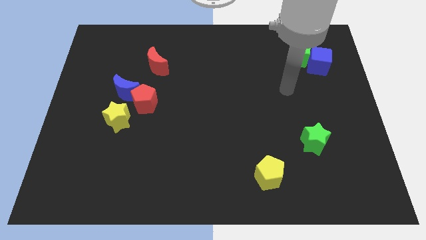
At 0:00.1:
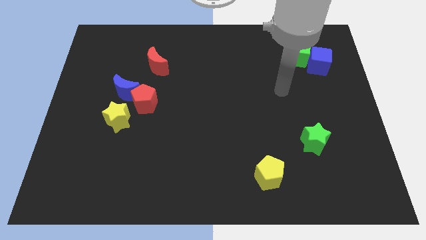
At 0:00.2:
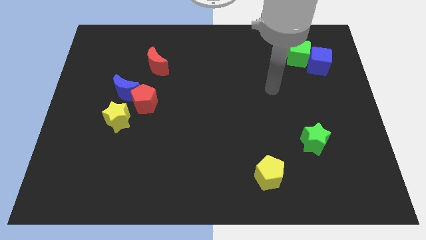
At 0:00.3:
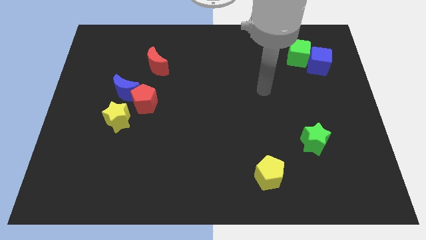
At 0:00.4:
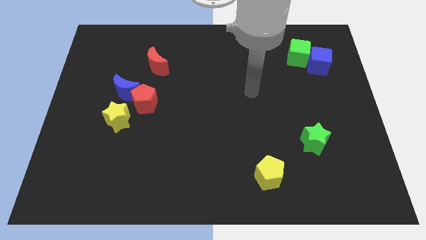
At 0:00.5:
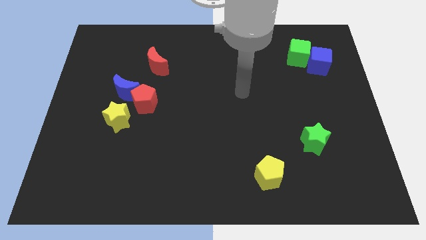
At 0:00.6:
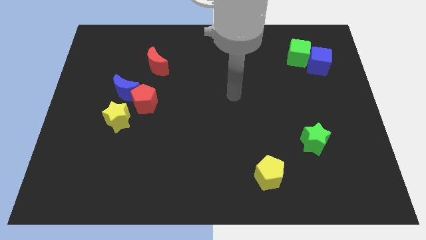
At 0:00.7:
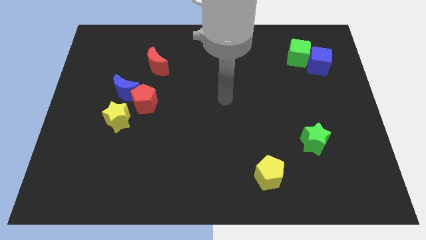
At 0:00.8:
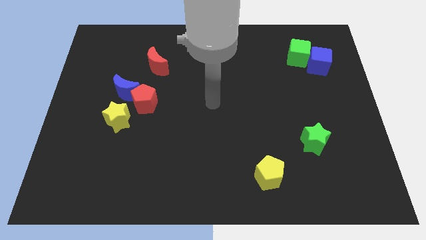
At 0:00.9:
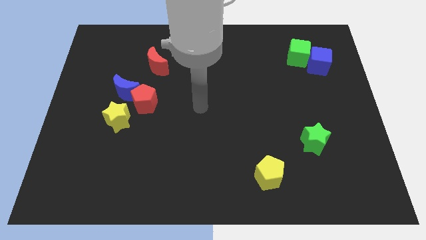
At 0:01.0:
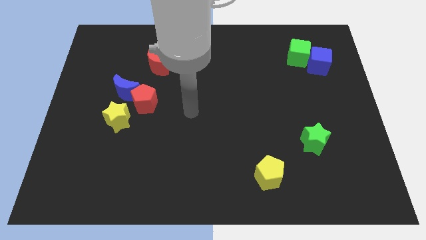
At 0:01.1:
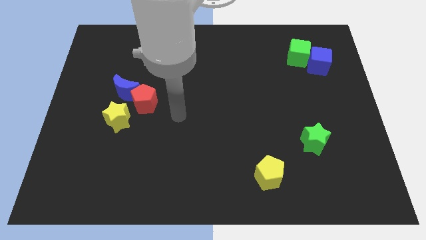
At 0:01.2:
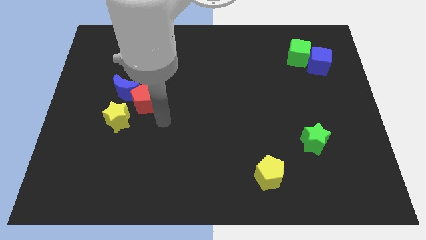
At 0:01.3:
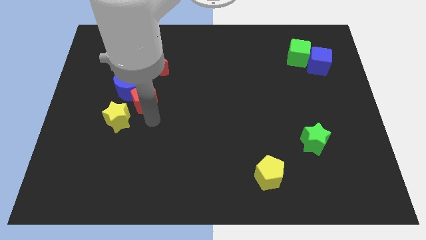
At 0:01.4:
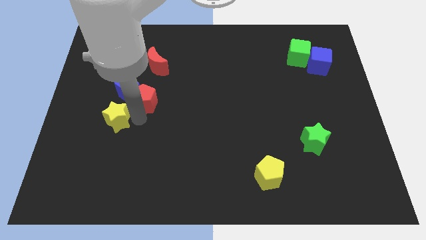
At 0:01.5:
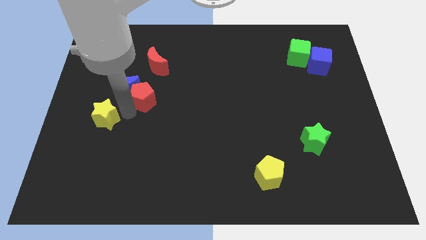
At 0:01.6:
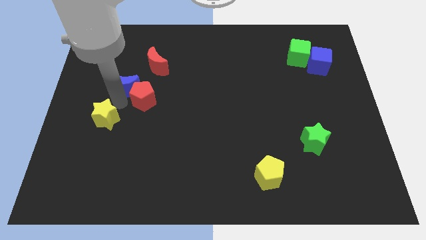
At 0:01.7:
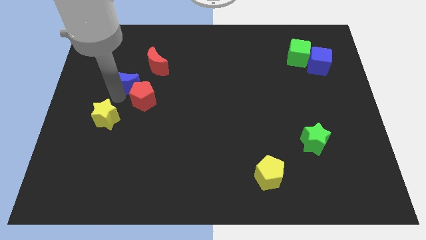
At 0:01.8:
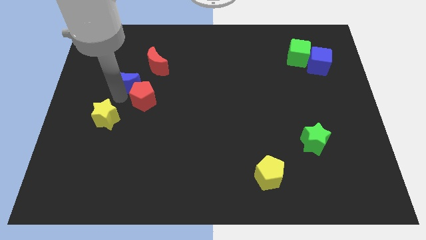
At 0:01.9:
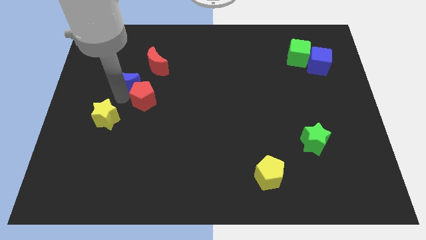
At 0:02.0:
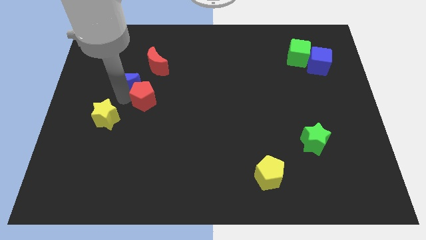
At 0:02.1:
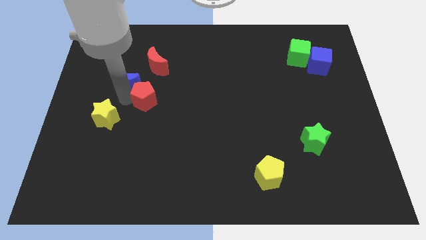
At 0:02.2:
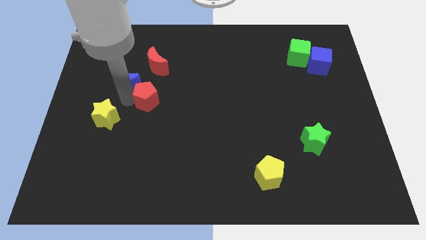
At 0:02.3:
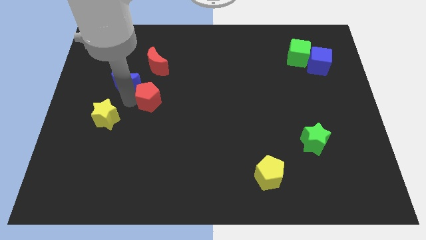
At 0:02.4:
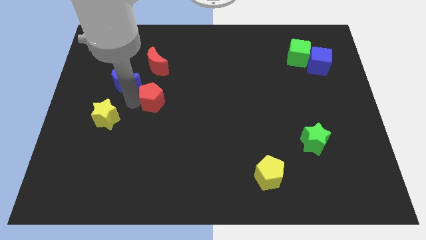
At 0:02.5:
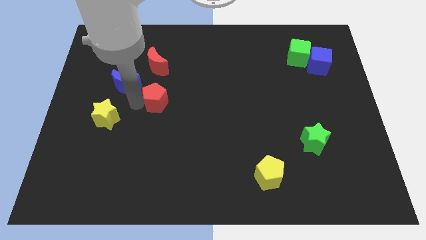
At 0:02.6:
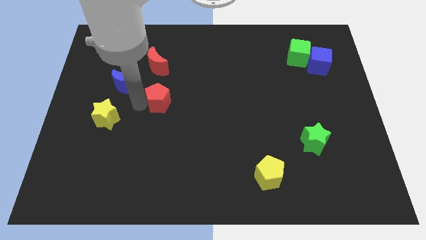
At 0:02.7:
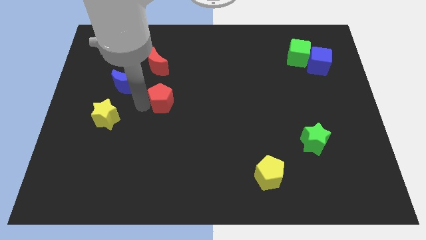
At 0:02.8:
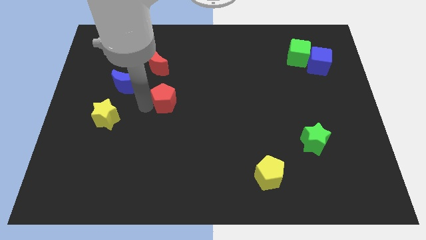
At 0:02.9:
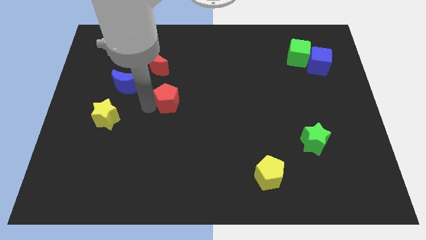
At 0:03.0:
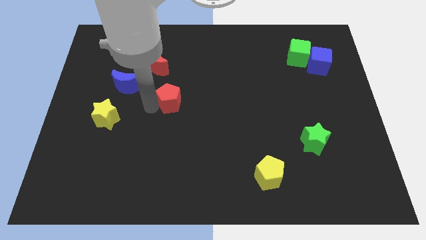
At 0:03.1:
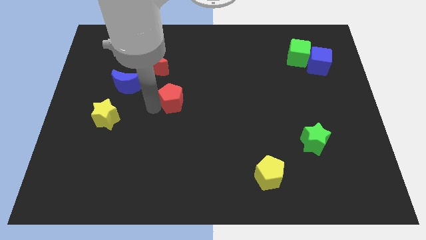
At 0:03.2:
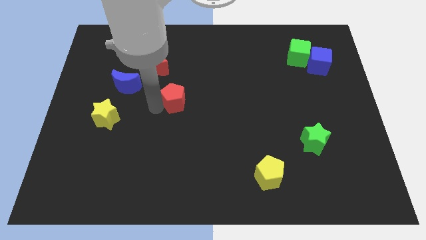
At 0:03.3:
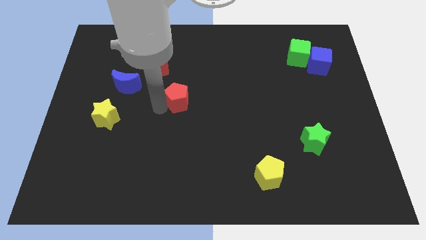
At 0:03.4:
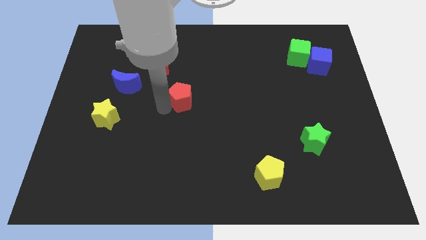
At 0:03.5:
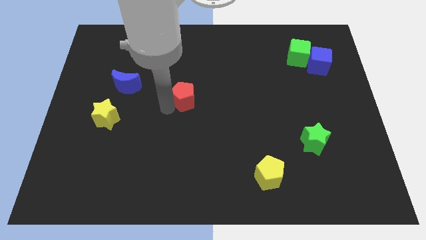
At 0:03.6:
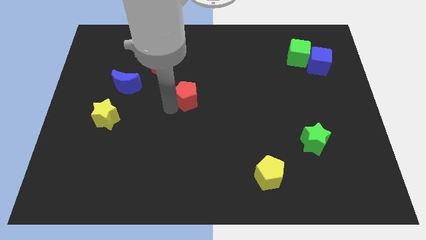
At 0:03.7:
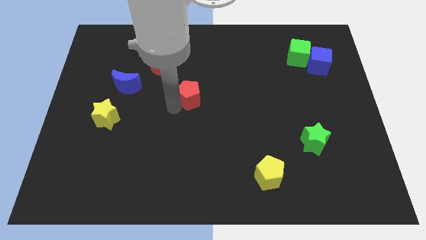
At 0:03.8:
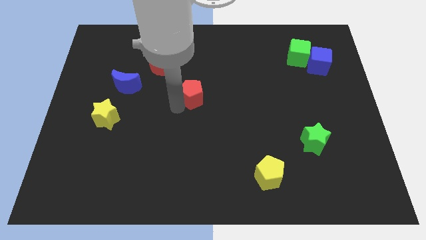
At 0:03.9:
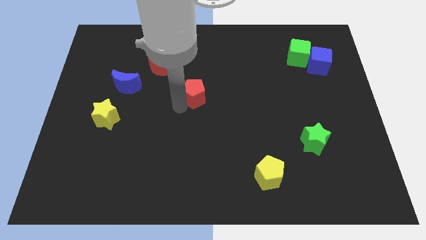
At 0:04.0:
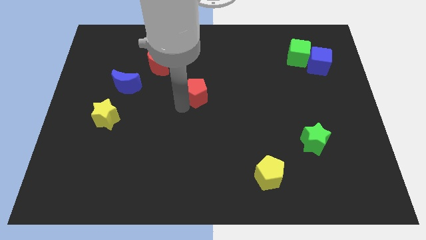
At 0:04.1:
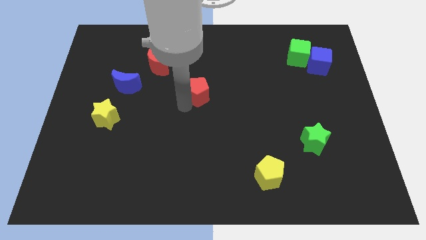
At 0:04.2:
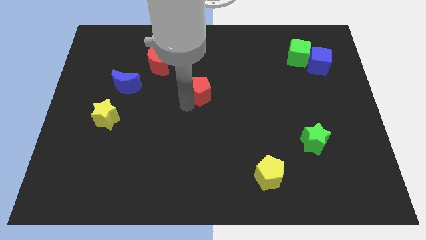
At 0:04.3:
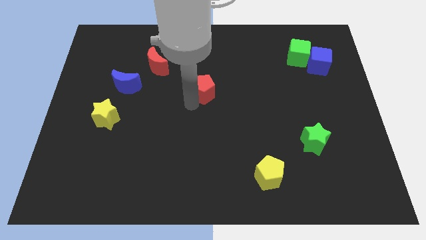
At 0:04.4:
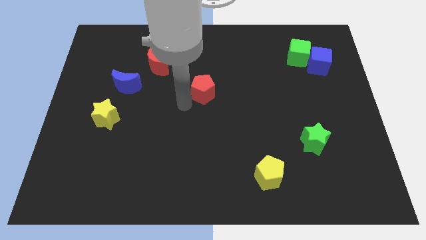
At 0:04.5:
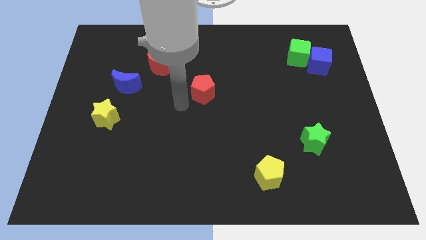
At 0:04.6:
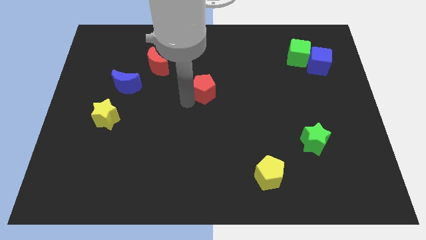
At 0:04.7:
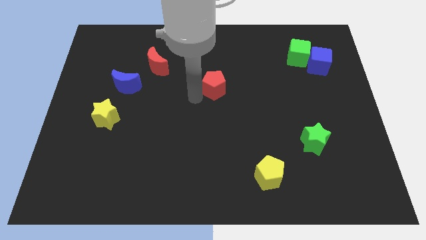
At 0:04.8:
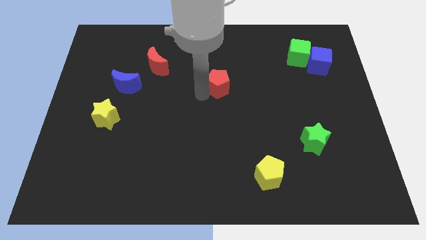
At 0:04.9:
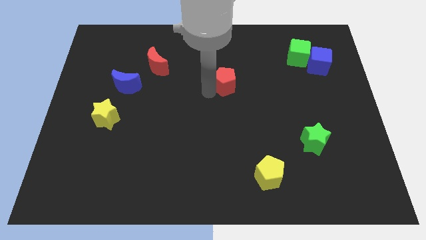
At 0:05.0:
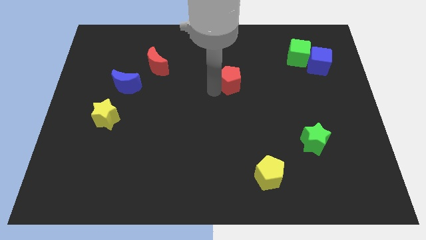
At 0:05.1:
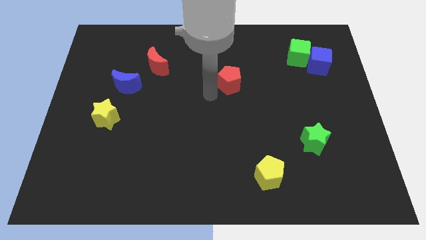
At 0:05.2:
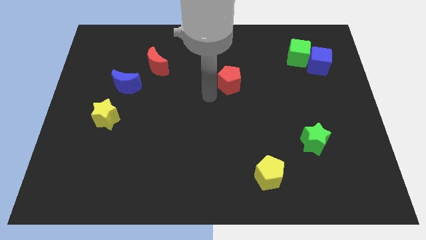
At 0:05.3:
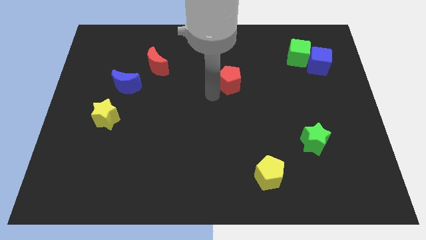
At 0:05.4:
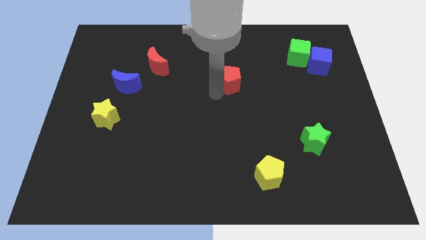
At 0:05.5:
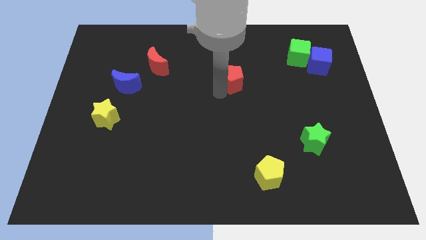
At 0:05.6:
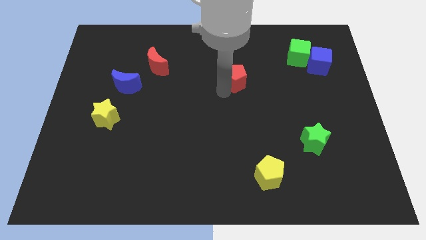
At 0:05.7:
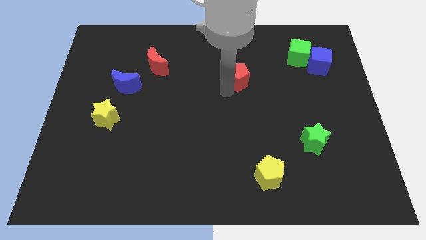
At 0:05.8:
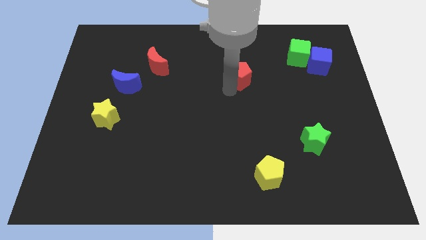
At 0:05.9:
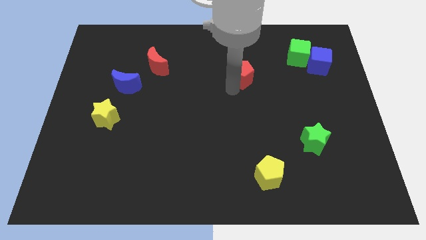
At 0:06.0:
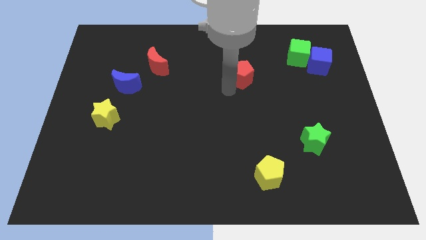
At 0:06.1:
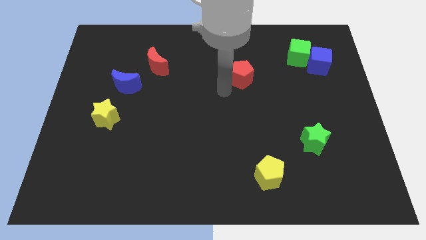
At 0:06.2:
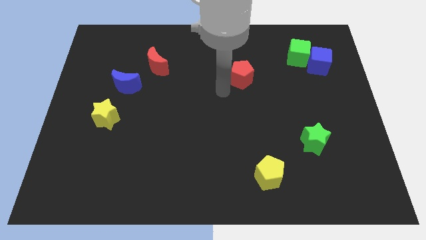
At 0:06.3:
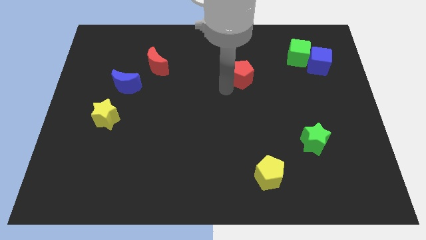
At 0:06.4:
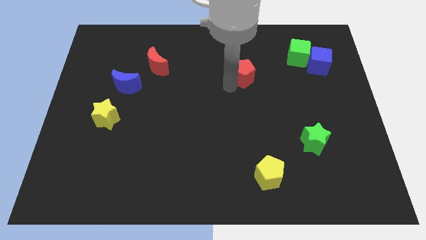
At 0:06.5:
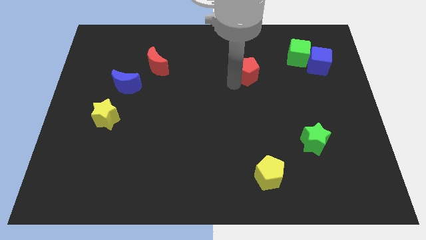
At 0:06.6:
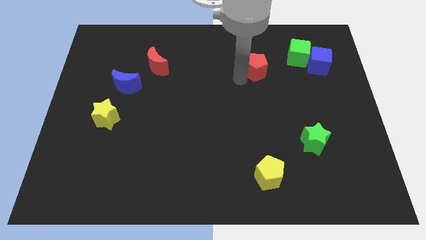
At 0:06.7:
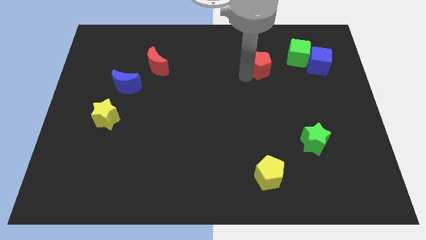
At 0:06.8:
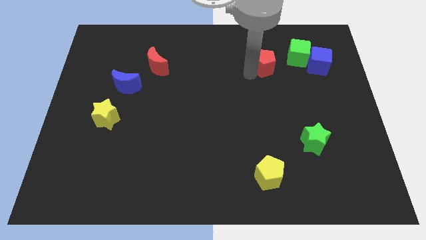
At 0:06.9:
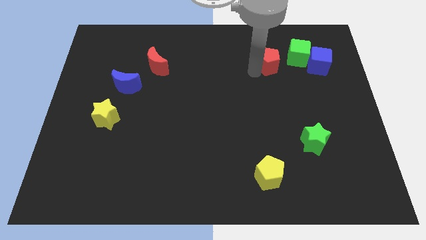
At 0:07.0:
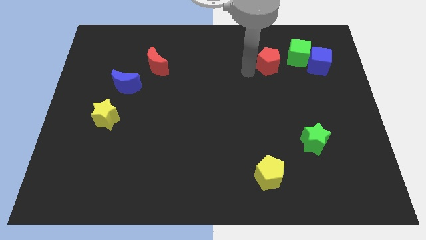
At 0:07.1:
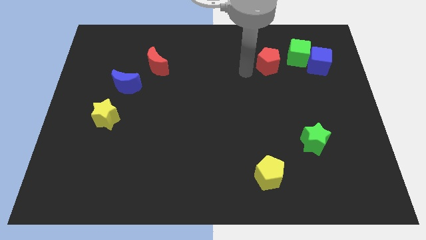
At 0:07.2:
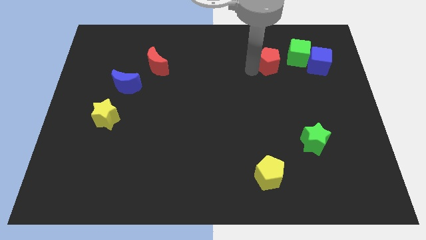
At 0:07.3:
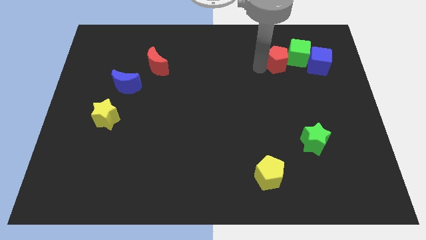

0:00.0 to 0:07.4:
slide the red pentagon to the green cube
